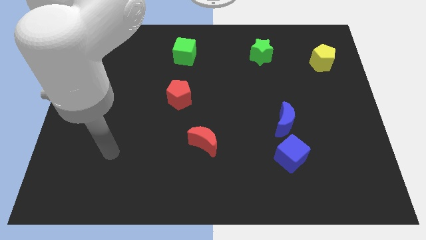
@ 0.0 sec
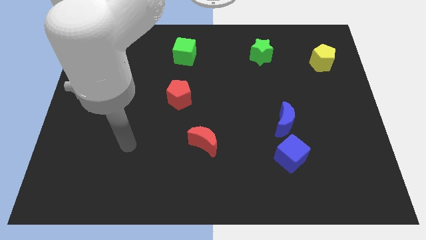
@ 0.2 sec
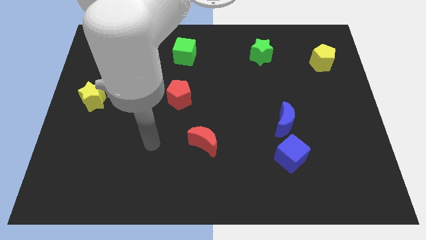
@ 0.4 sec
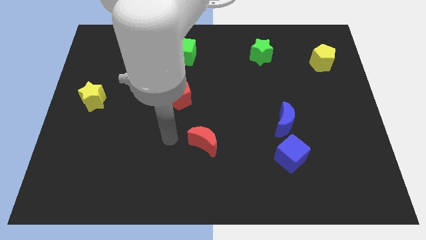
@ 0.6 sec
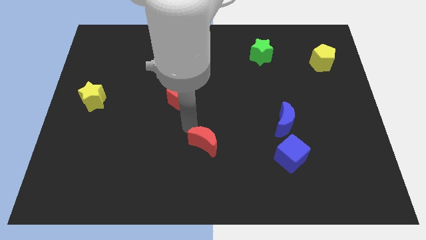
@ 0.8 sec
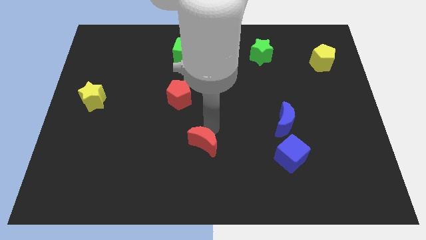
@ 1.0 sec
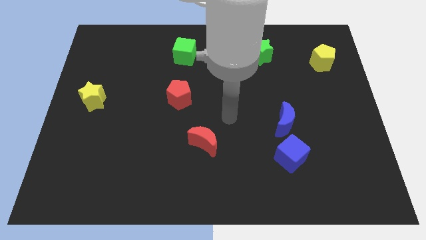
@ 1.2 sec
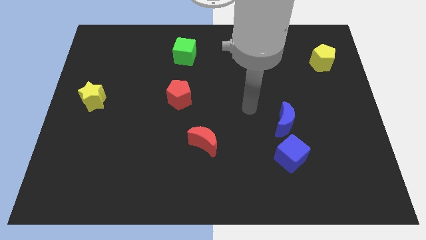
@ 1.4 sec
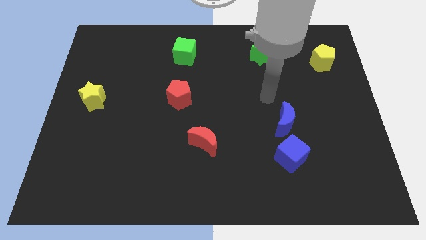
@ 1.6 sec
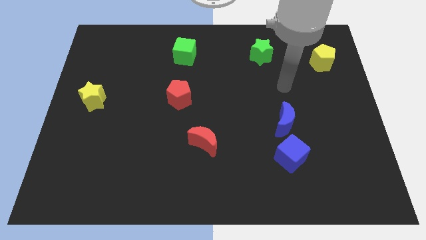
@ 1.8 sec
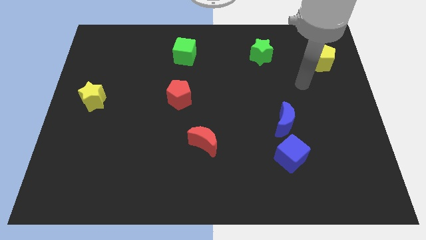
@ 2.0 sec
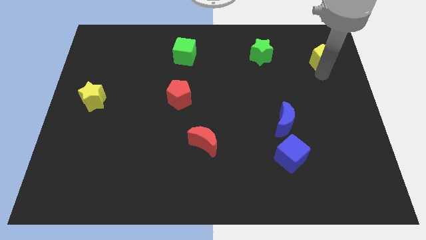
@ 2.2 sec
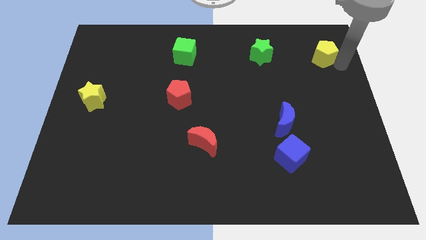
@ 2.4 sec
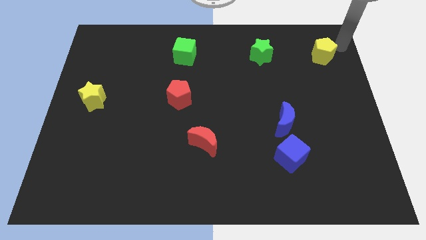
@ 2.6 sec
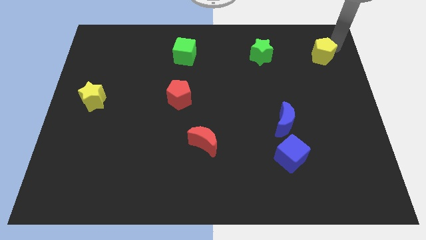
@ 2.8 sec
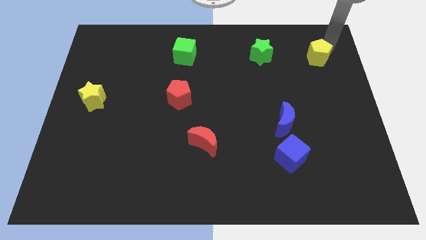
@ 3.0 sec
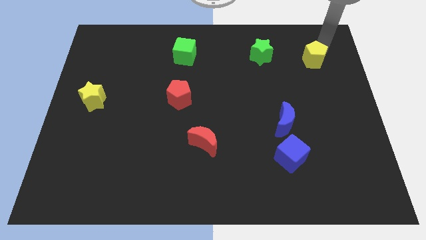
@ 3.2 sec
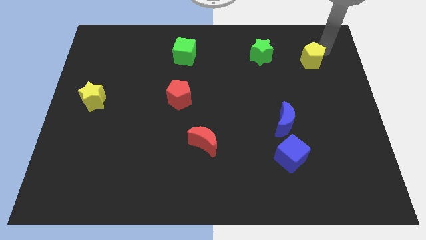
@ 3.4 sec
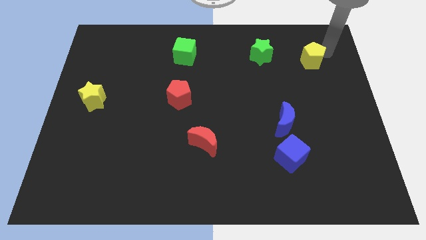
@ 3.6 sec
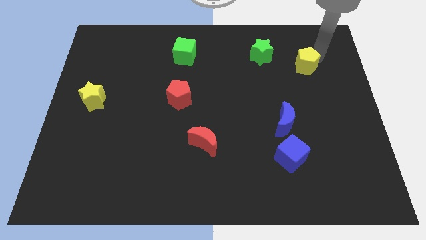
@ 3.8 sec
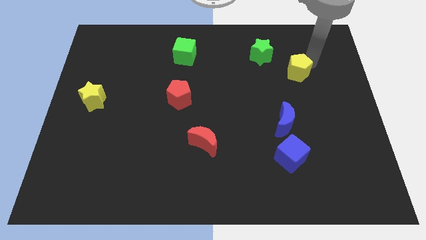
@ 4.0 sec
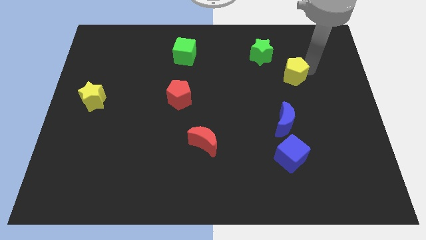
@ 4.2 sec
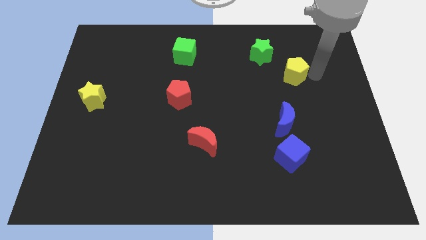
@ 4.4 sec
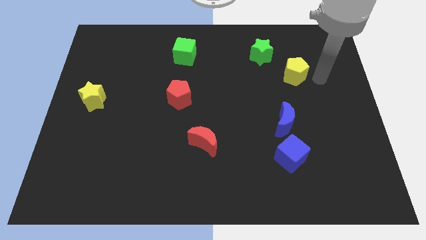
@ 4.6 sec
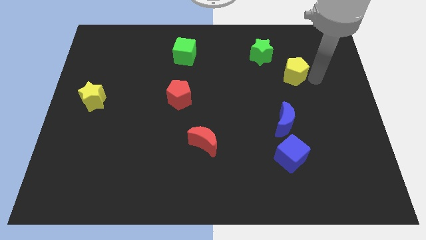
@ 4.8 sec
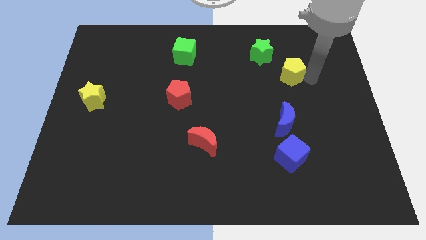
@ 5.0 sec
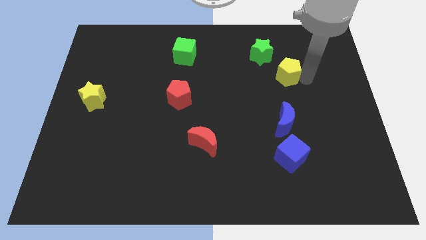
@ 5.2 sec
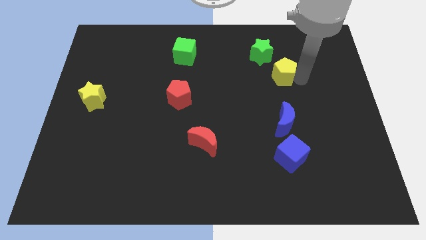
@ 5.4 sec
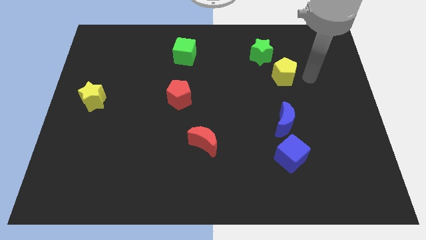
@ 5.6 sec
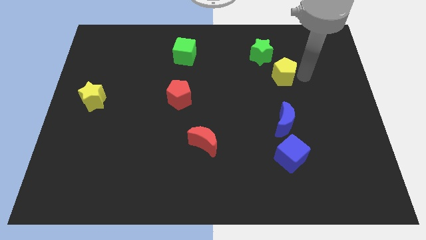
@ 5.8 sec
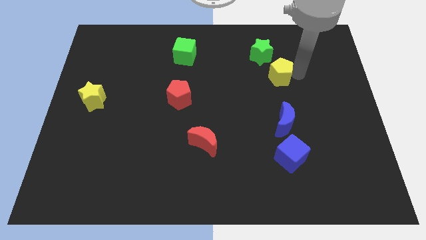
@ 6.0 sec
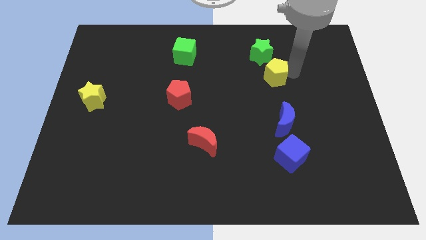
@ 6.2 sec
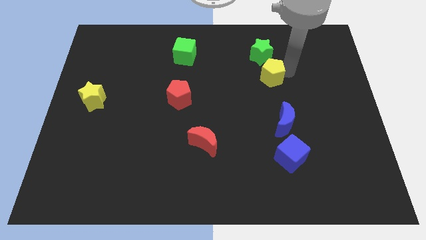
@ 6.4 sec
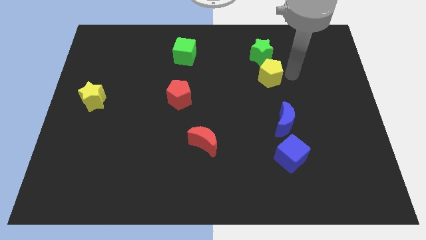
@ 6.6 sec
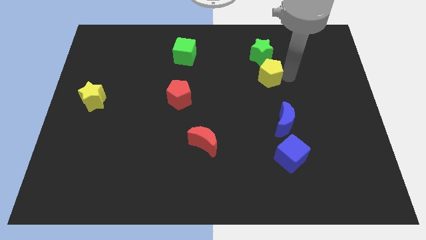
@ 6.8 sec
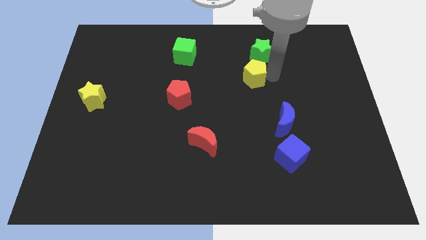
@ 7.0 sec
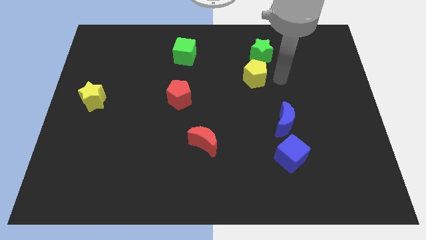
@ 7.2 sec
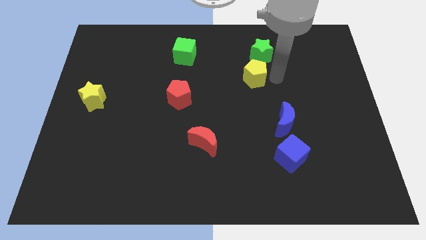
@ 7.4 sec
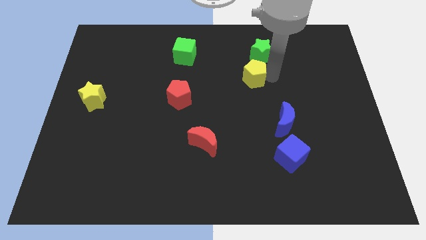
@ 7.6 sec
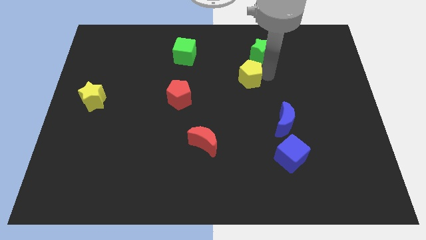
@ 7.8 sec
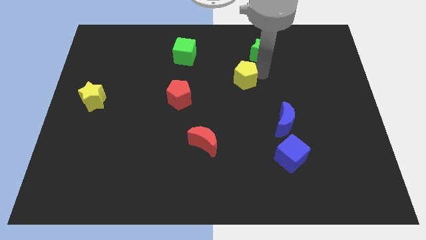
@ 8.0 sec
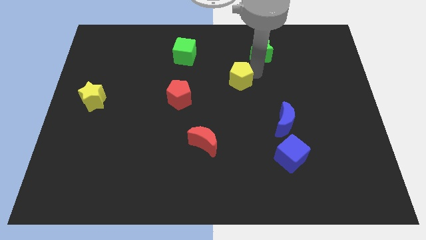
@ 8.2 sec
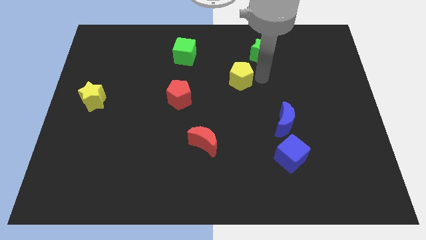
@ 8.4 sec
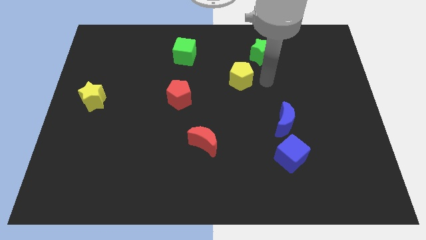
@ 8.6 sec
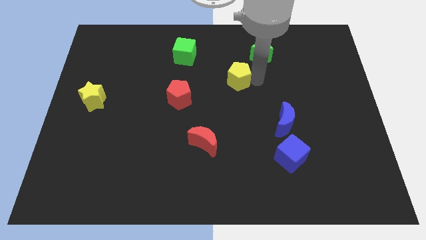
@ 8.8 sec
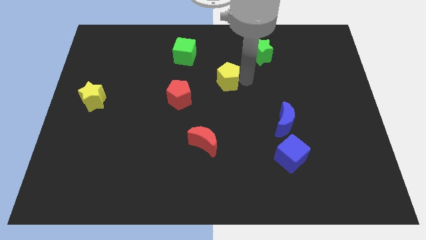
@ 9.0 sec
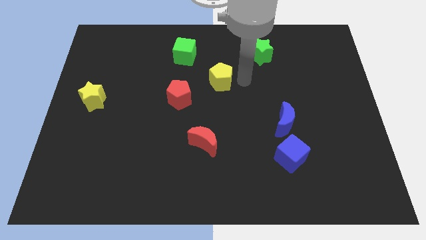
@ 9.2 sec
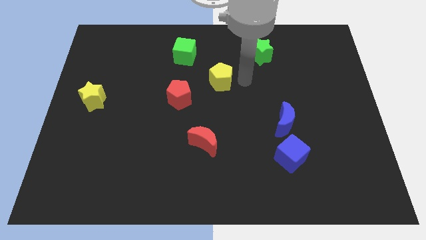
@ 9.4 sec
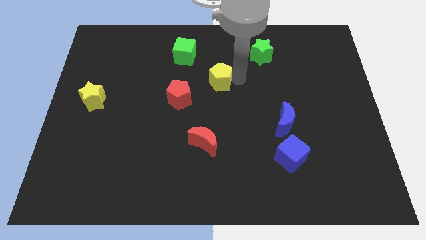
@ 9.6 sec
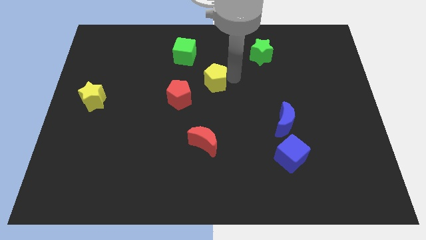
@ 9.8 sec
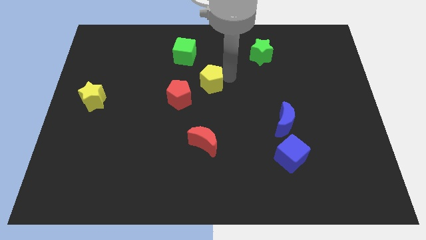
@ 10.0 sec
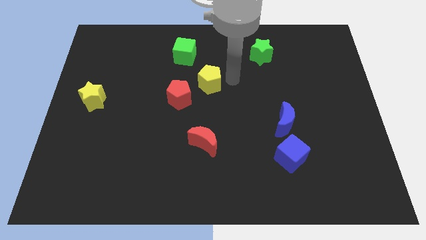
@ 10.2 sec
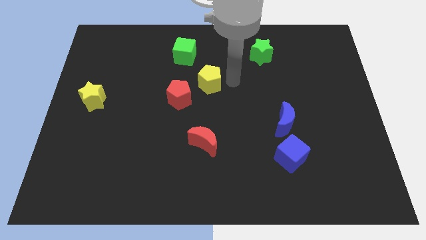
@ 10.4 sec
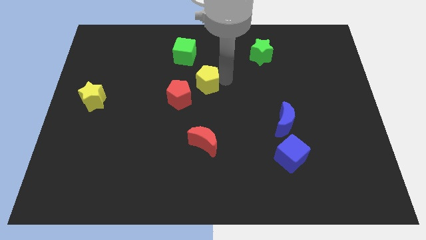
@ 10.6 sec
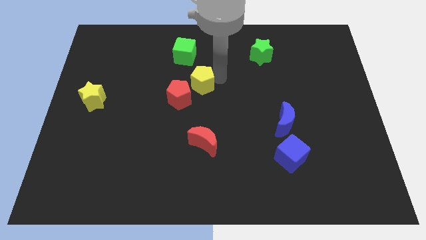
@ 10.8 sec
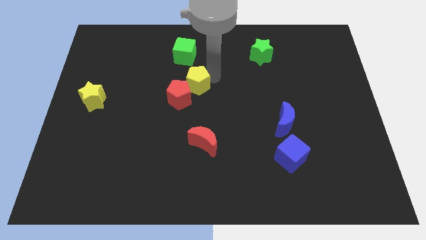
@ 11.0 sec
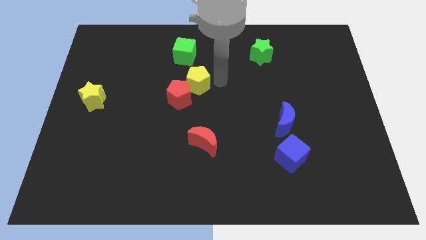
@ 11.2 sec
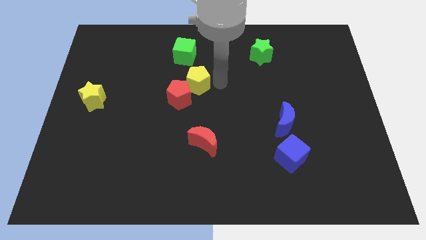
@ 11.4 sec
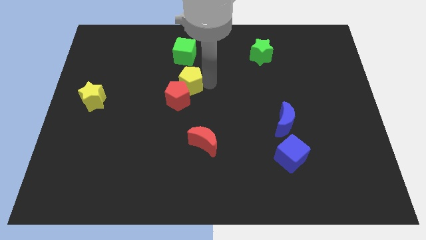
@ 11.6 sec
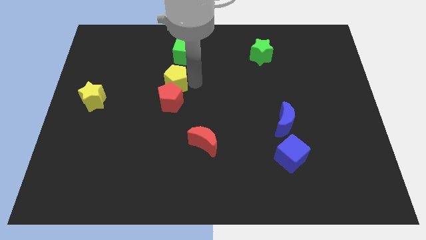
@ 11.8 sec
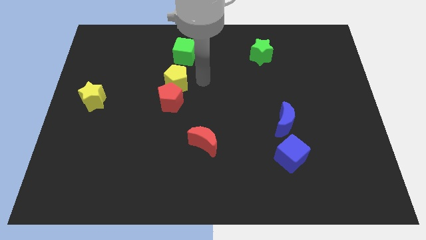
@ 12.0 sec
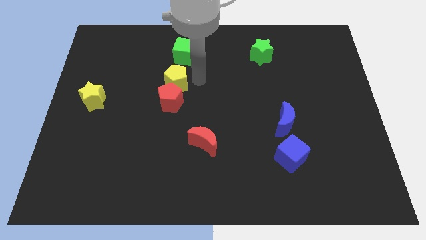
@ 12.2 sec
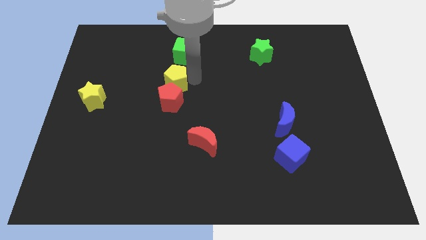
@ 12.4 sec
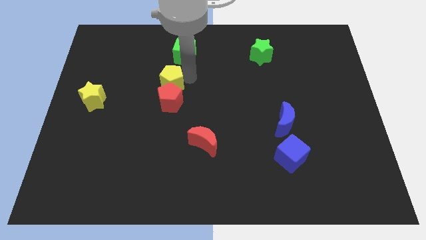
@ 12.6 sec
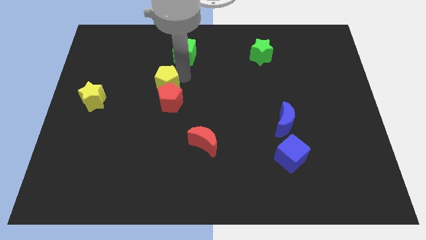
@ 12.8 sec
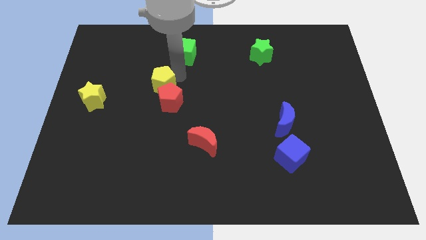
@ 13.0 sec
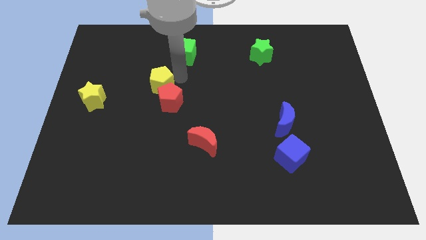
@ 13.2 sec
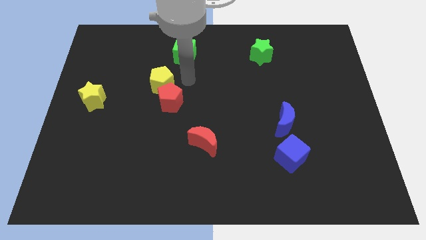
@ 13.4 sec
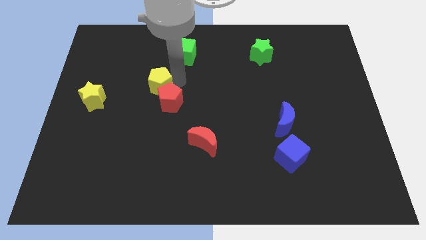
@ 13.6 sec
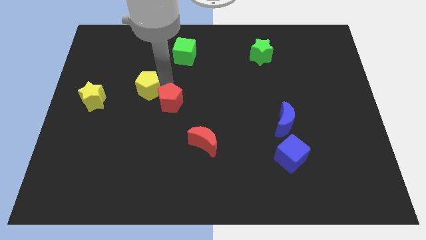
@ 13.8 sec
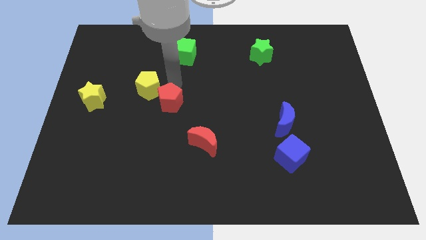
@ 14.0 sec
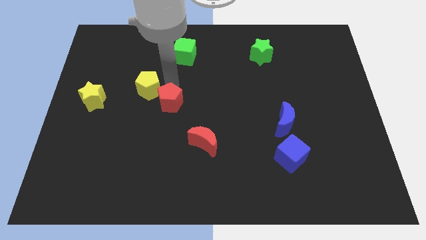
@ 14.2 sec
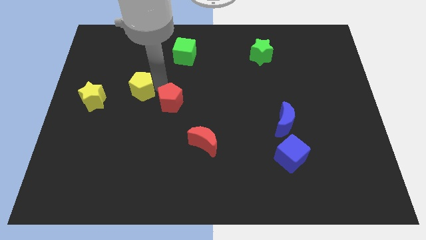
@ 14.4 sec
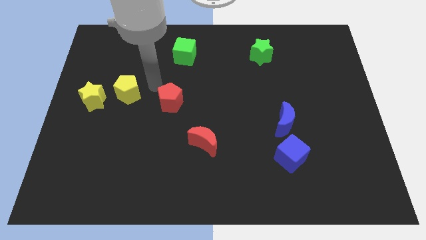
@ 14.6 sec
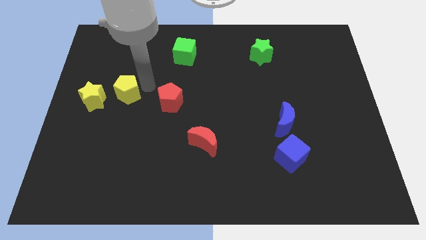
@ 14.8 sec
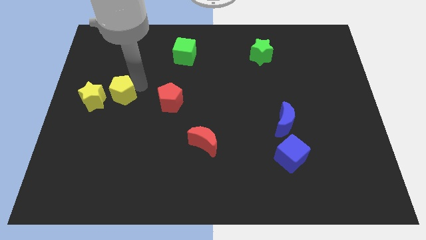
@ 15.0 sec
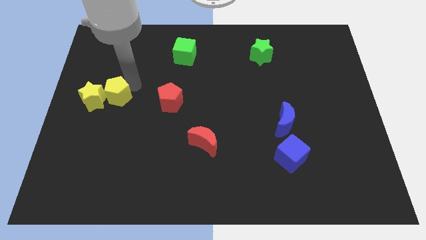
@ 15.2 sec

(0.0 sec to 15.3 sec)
put the yellow pentagon close to the yellow star
